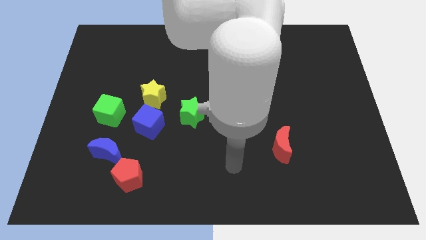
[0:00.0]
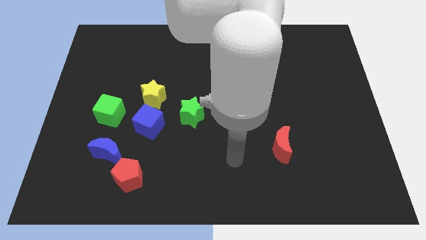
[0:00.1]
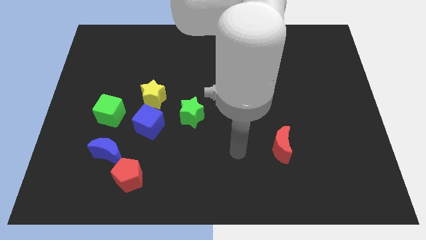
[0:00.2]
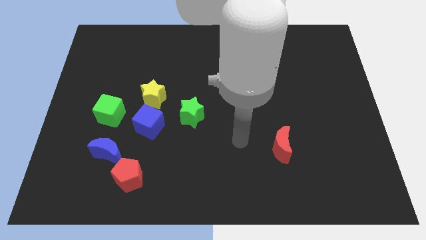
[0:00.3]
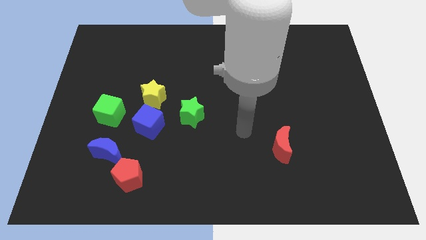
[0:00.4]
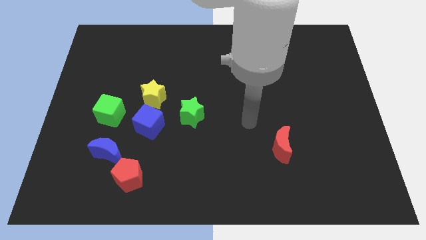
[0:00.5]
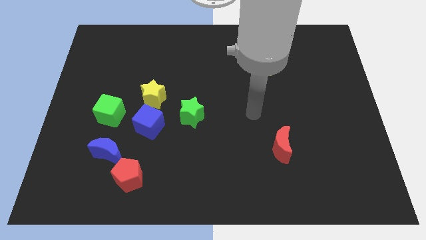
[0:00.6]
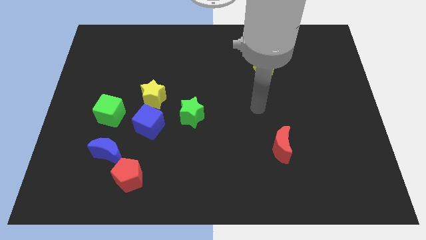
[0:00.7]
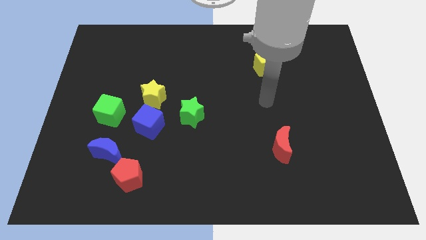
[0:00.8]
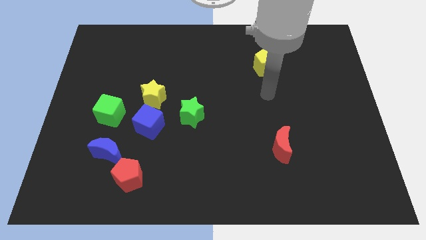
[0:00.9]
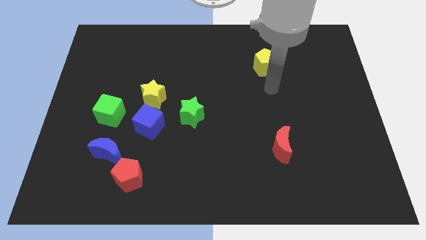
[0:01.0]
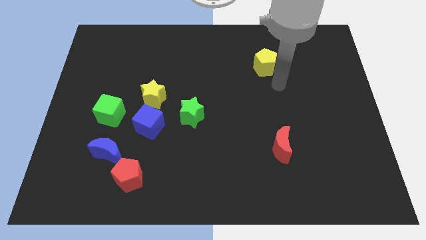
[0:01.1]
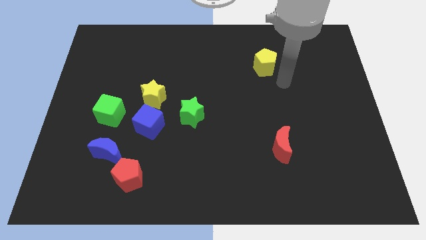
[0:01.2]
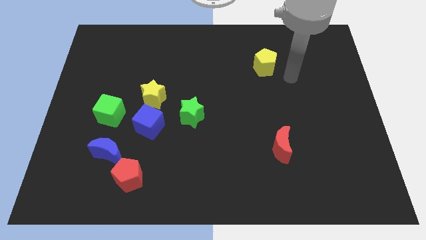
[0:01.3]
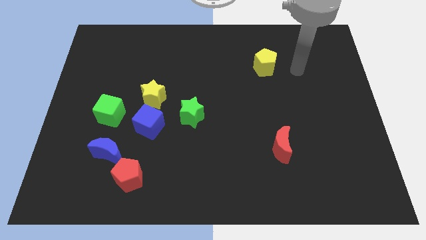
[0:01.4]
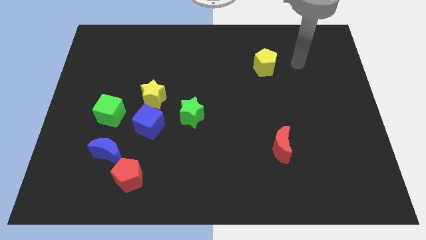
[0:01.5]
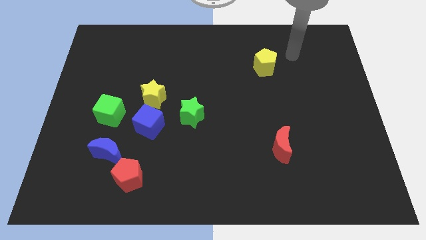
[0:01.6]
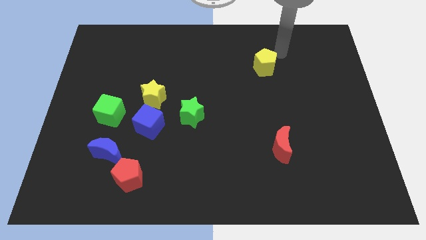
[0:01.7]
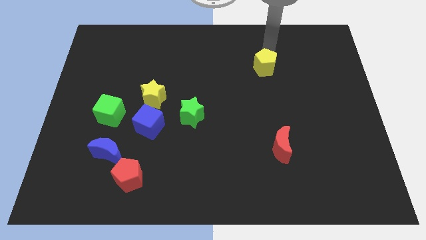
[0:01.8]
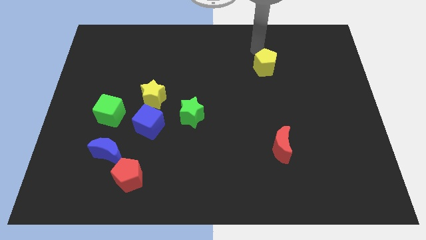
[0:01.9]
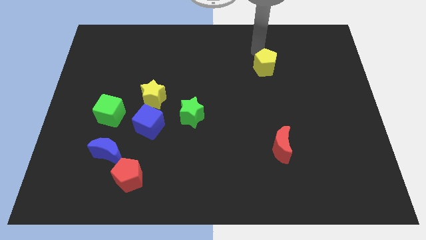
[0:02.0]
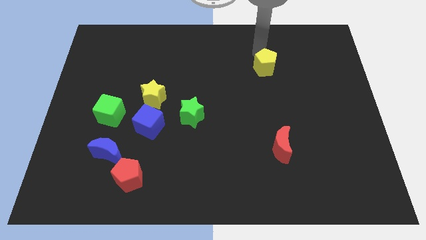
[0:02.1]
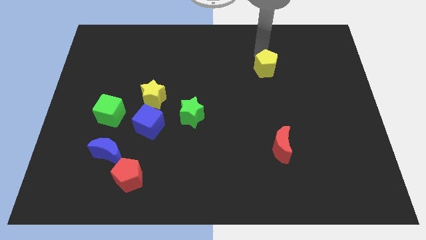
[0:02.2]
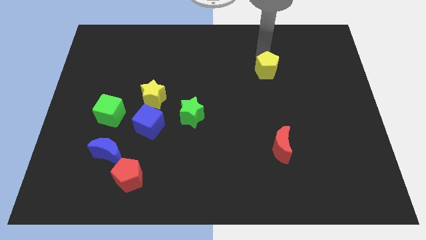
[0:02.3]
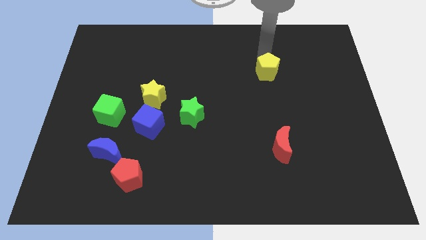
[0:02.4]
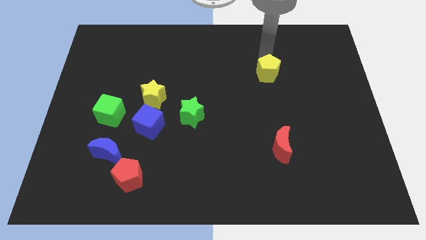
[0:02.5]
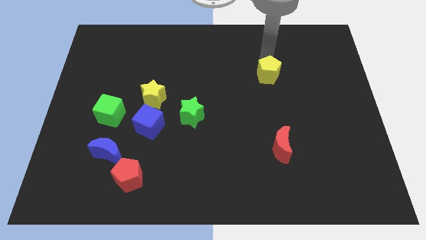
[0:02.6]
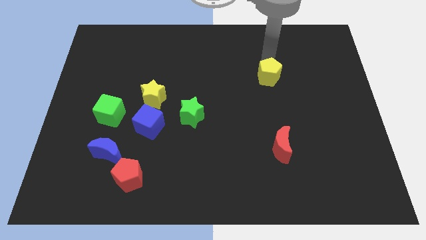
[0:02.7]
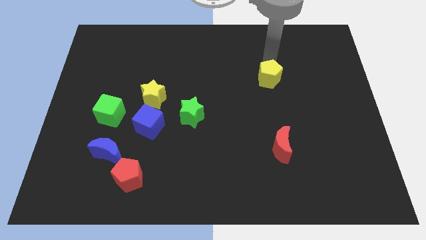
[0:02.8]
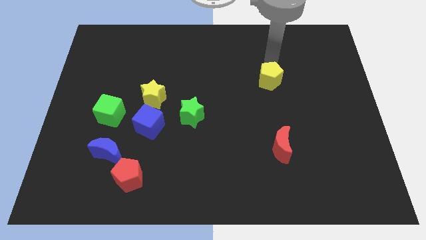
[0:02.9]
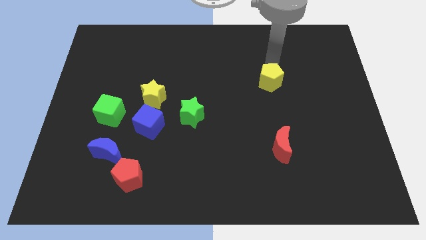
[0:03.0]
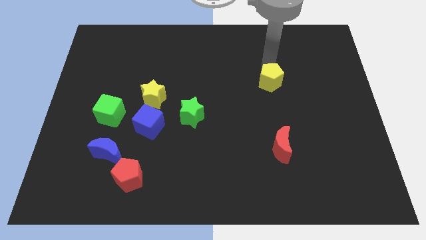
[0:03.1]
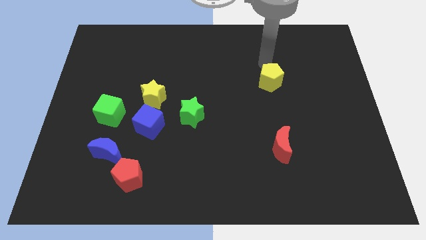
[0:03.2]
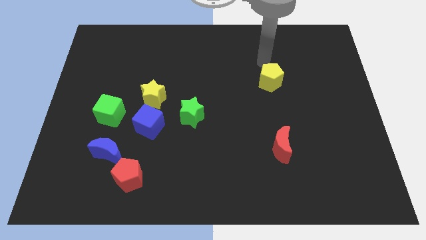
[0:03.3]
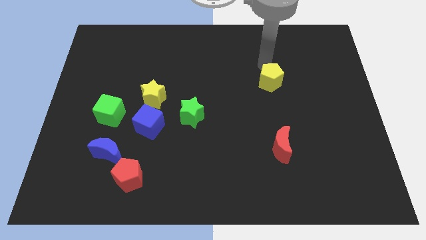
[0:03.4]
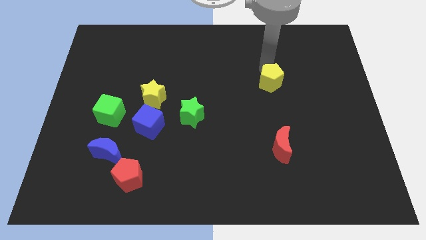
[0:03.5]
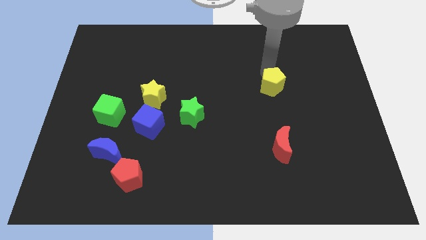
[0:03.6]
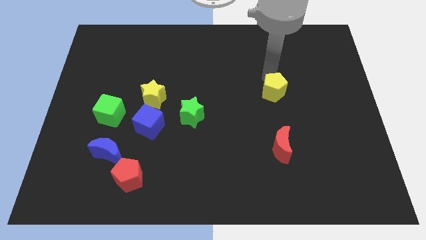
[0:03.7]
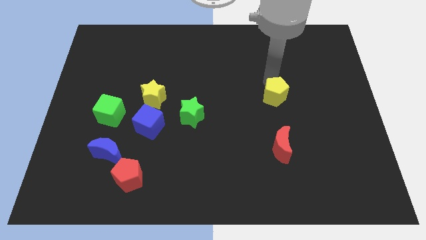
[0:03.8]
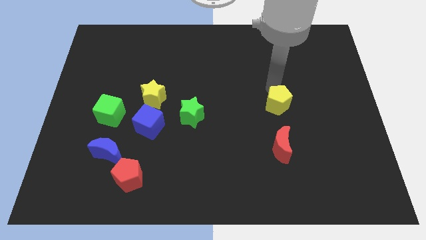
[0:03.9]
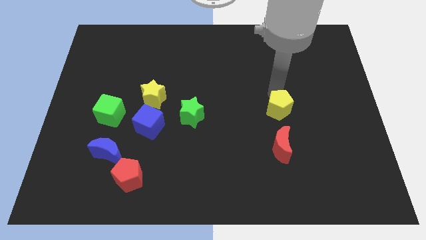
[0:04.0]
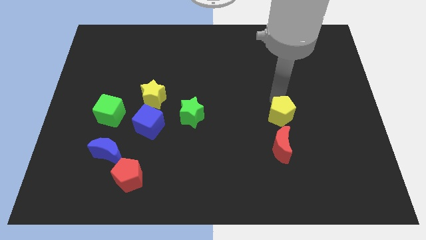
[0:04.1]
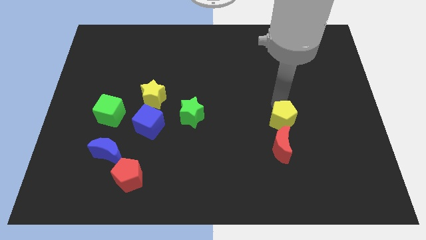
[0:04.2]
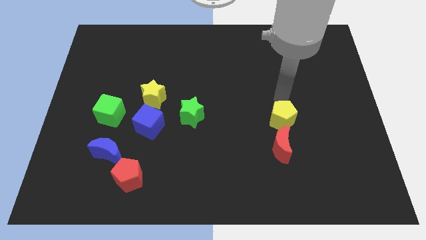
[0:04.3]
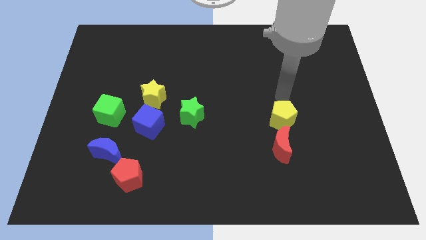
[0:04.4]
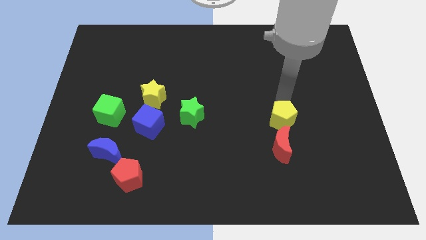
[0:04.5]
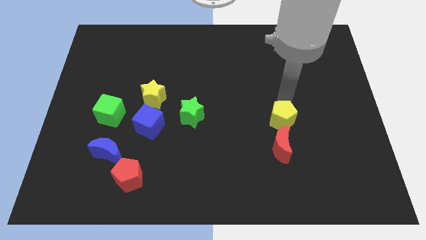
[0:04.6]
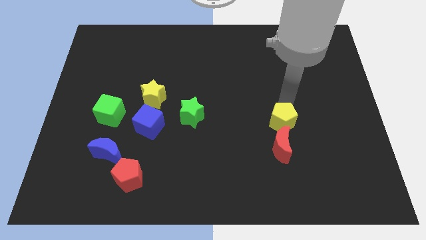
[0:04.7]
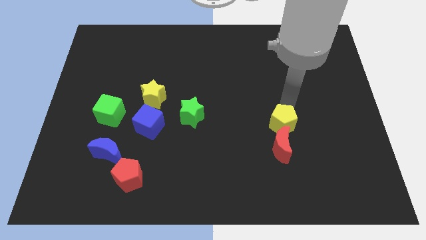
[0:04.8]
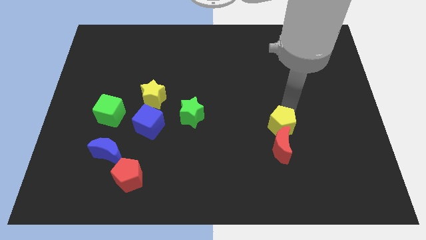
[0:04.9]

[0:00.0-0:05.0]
slide the yellow pentagon towards the red moon

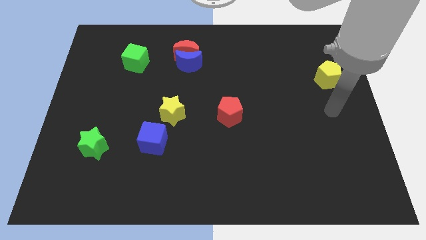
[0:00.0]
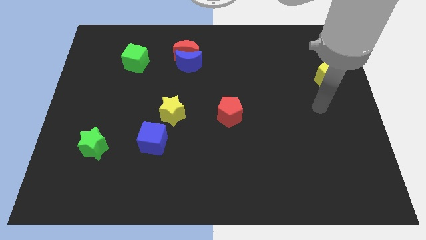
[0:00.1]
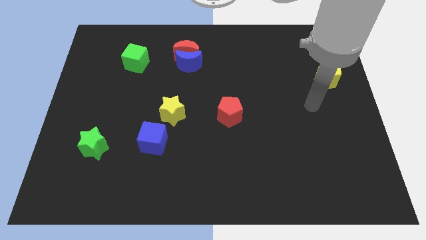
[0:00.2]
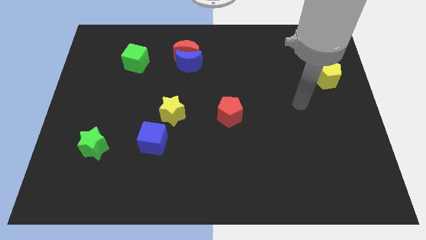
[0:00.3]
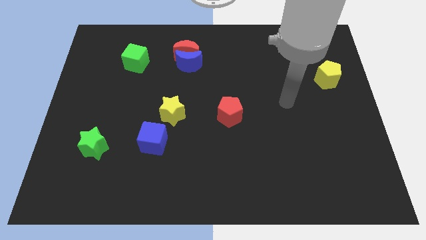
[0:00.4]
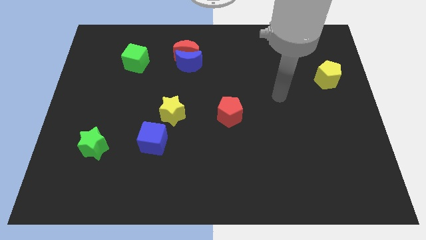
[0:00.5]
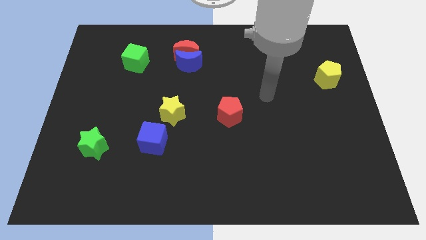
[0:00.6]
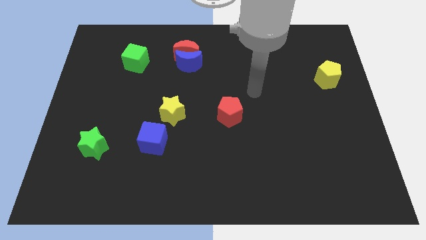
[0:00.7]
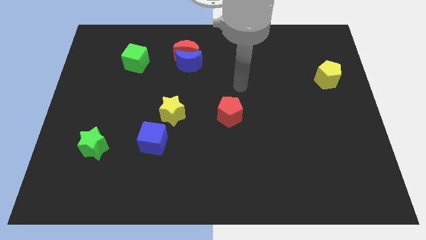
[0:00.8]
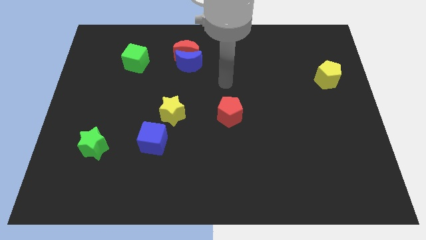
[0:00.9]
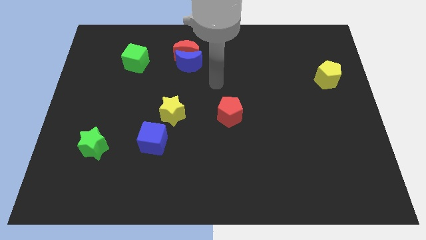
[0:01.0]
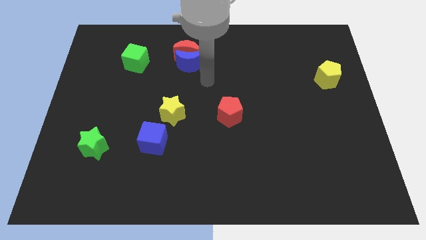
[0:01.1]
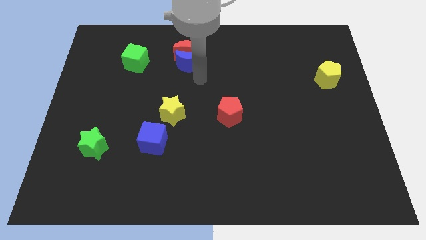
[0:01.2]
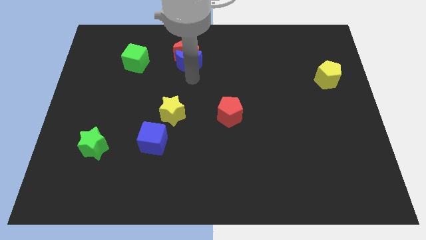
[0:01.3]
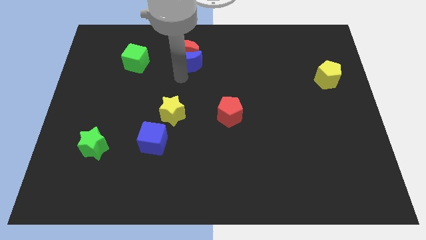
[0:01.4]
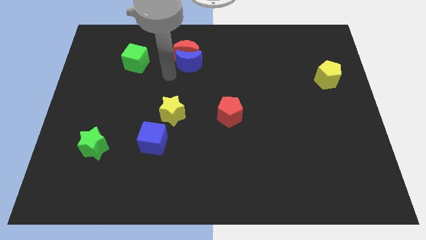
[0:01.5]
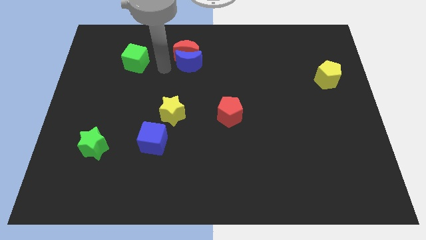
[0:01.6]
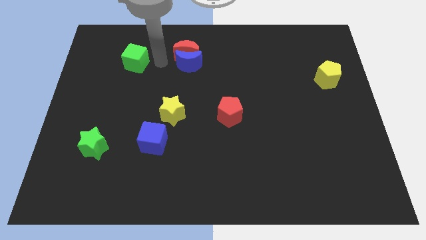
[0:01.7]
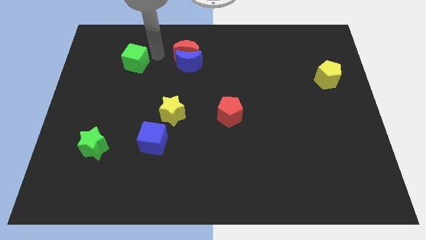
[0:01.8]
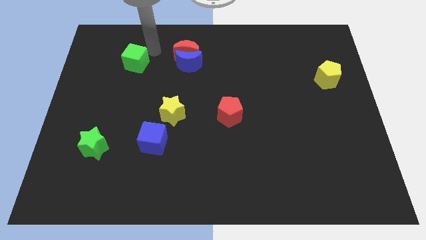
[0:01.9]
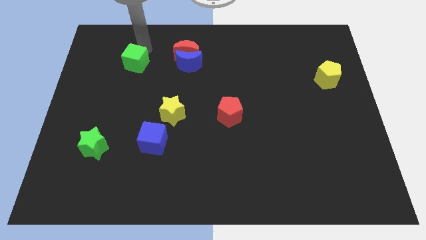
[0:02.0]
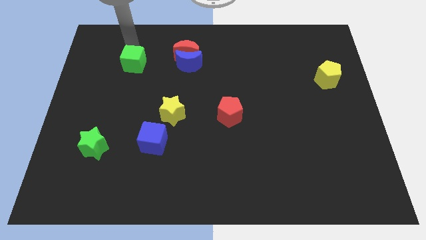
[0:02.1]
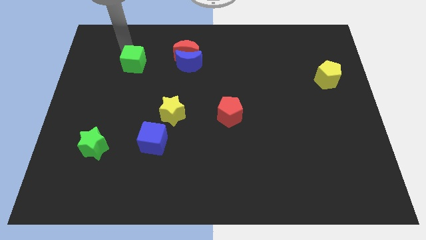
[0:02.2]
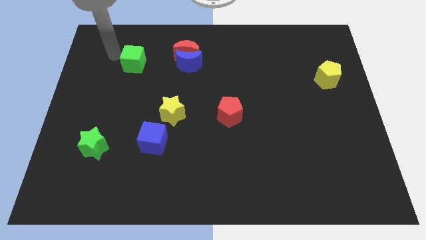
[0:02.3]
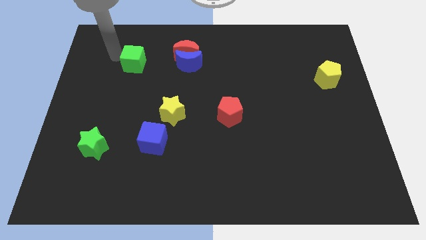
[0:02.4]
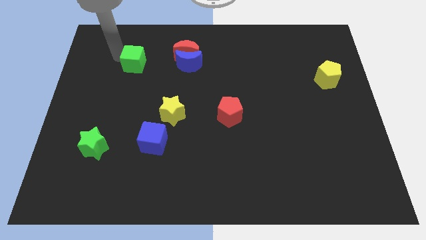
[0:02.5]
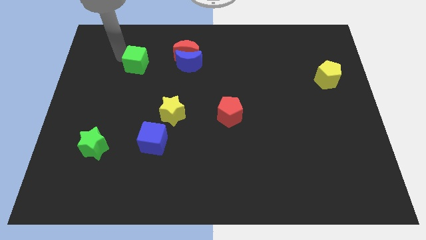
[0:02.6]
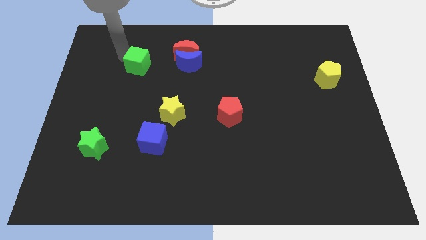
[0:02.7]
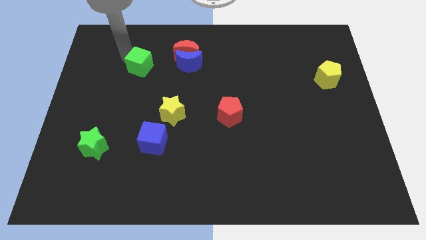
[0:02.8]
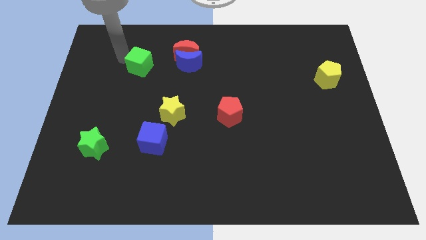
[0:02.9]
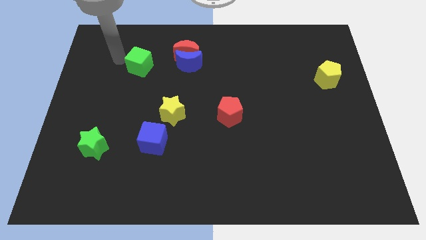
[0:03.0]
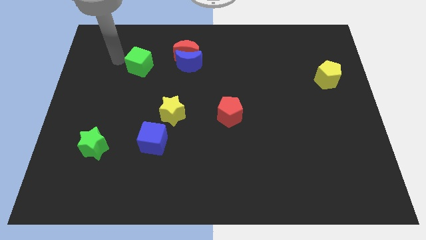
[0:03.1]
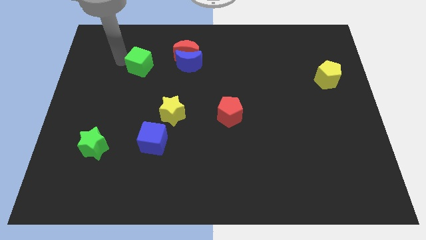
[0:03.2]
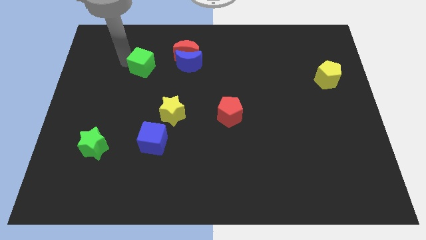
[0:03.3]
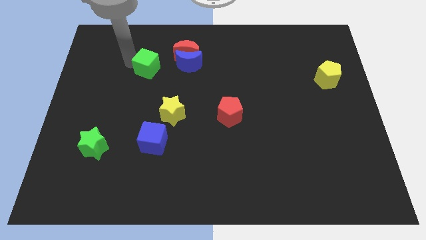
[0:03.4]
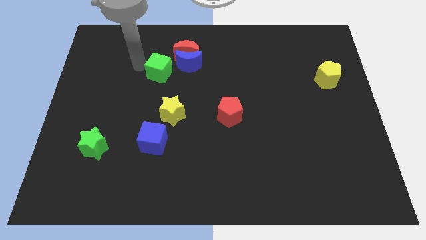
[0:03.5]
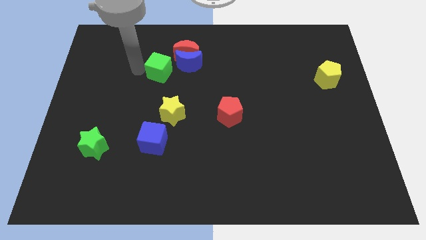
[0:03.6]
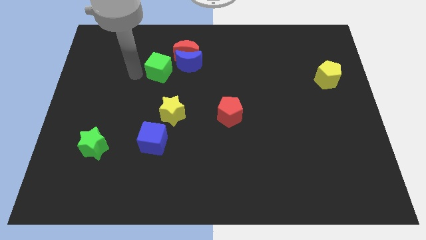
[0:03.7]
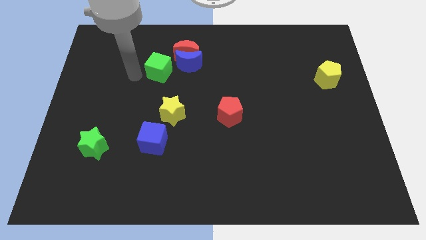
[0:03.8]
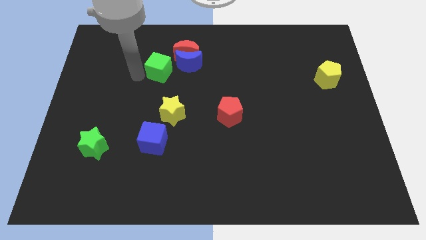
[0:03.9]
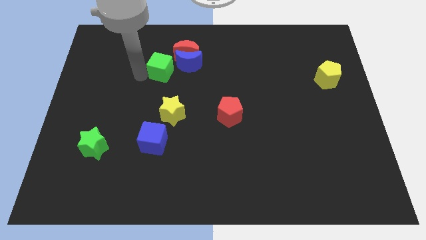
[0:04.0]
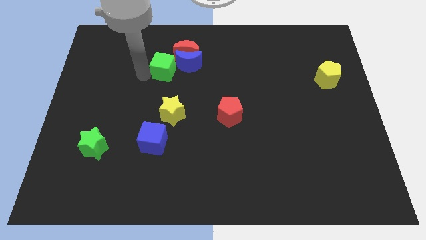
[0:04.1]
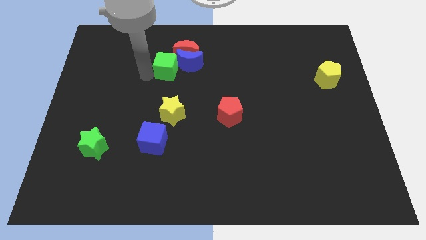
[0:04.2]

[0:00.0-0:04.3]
put the green cube close to the blue moon
